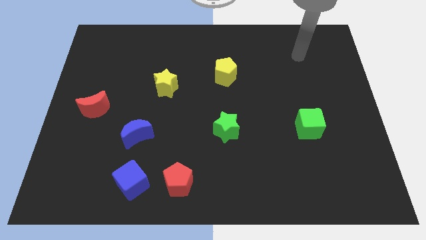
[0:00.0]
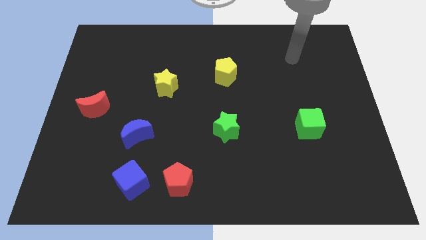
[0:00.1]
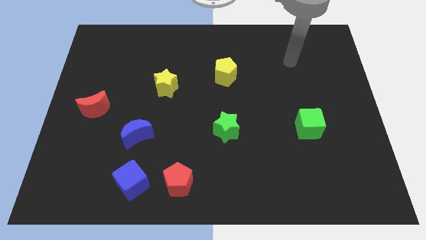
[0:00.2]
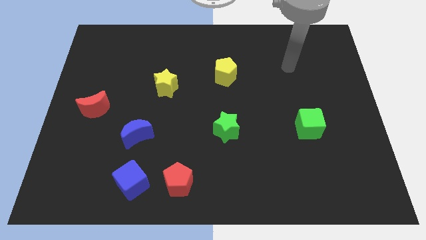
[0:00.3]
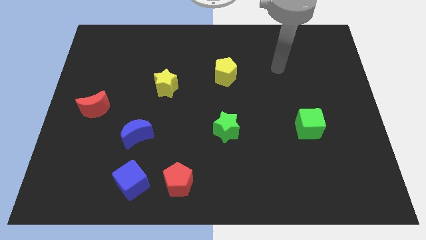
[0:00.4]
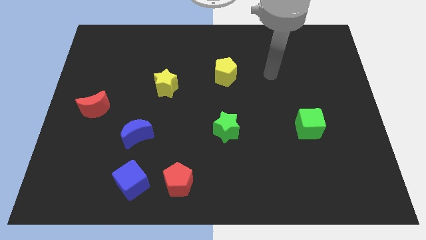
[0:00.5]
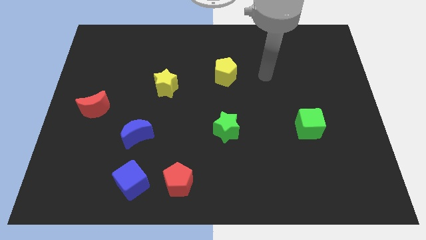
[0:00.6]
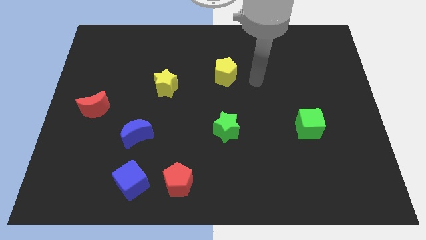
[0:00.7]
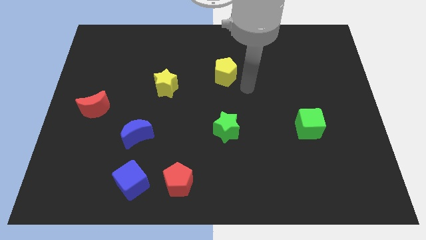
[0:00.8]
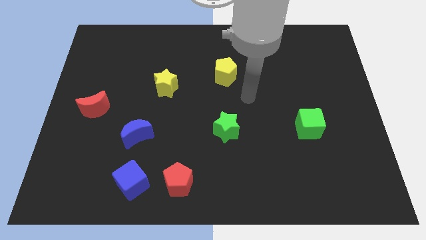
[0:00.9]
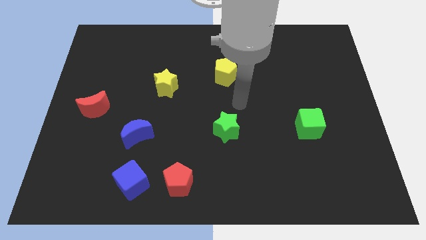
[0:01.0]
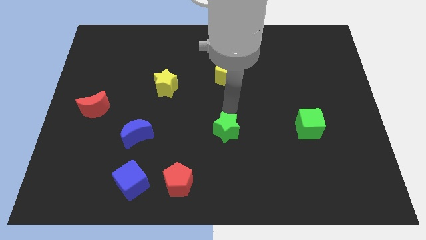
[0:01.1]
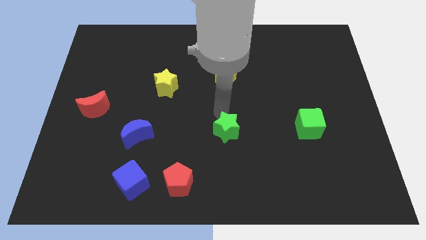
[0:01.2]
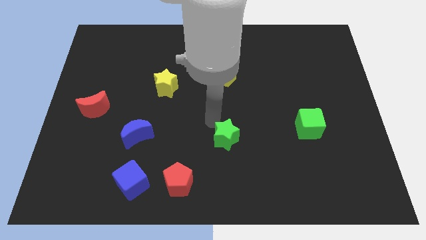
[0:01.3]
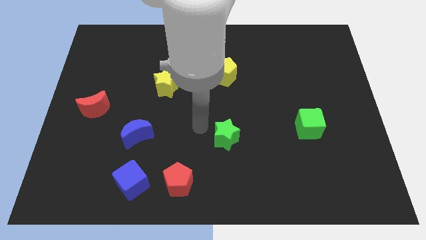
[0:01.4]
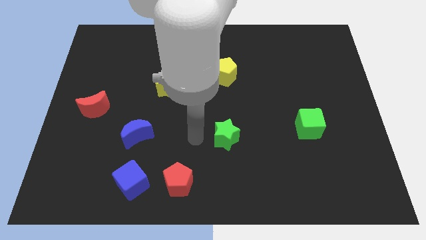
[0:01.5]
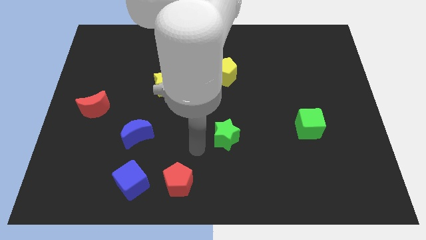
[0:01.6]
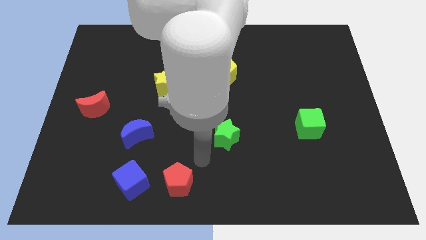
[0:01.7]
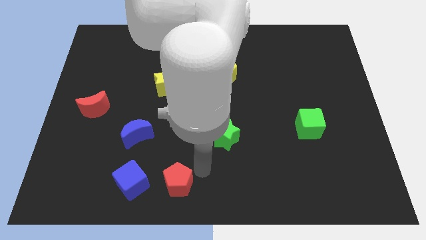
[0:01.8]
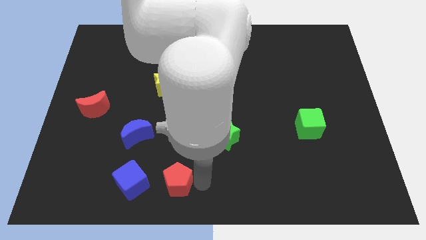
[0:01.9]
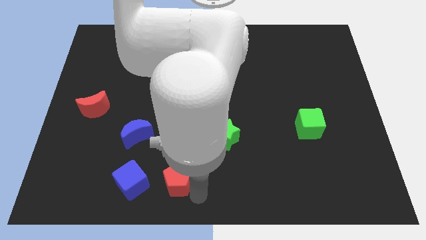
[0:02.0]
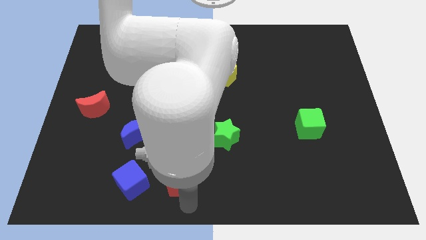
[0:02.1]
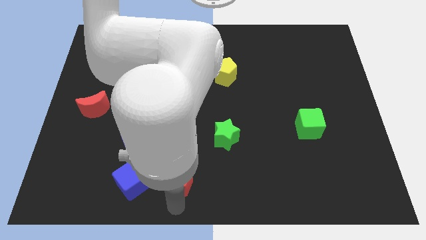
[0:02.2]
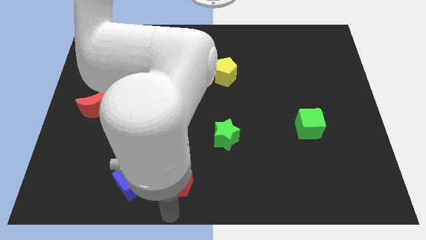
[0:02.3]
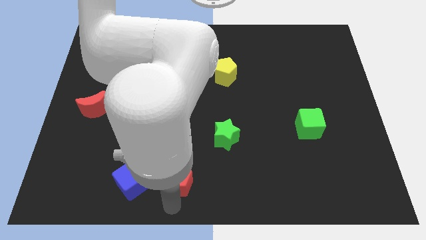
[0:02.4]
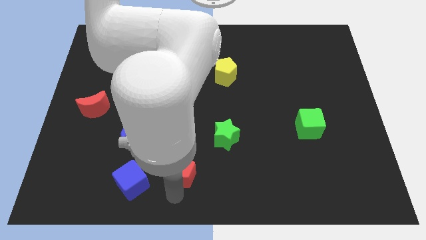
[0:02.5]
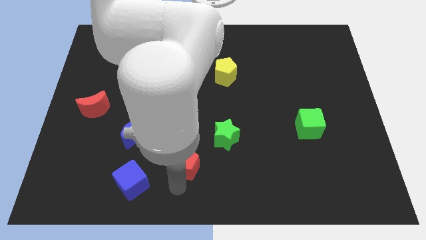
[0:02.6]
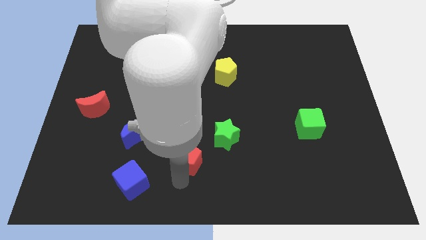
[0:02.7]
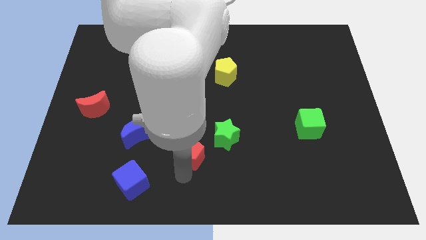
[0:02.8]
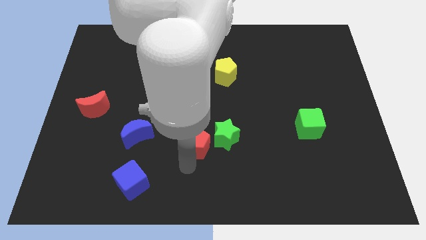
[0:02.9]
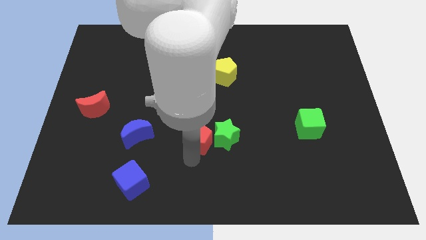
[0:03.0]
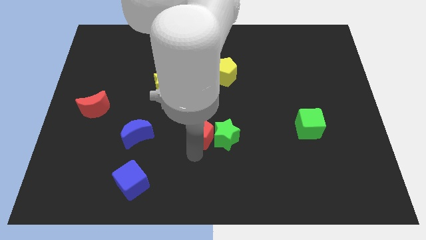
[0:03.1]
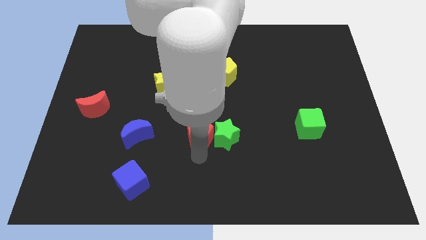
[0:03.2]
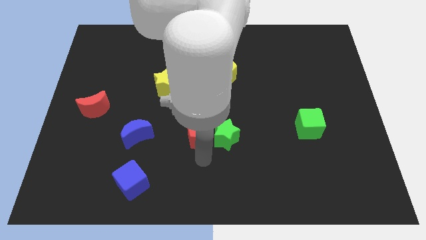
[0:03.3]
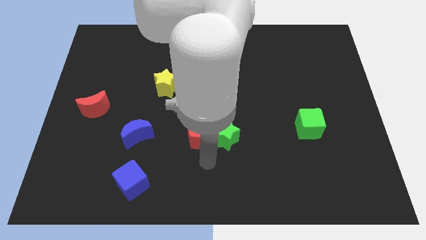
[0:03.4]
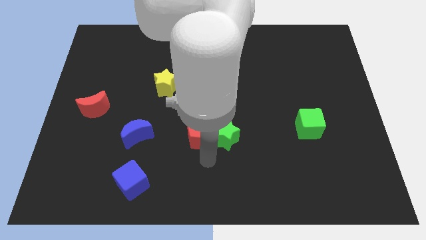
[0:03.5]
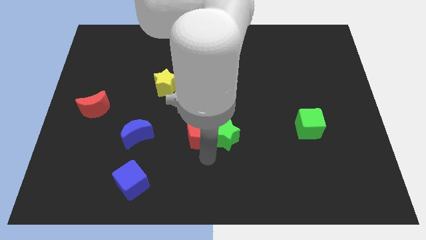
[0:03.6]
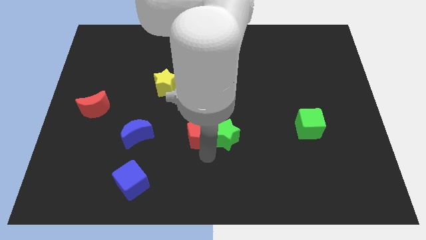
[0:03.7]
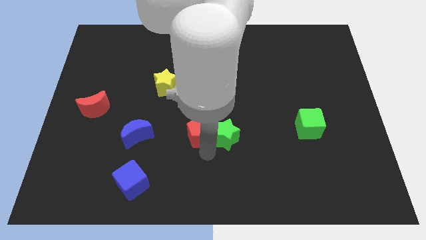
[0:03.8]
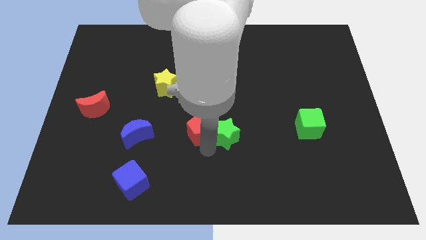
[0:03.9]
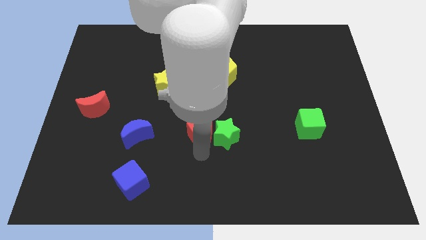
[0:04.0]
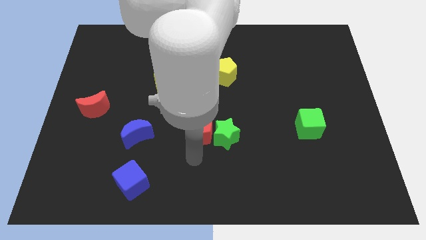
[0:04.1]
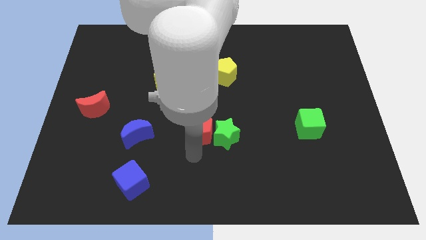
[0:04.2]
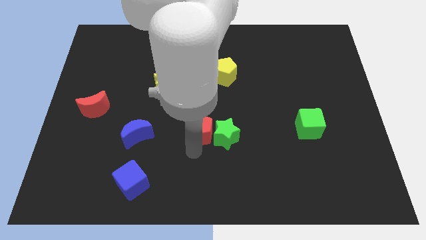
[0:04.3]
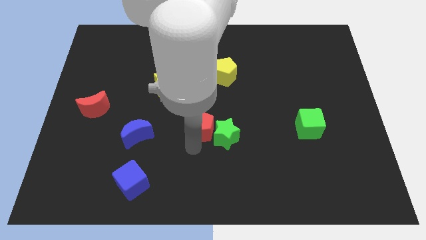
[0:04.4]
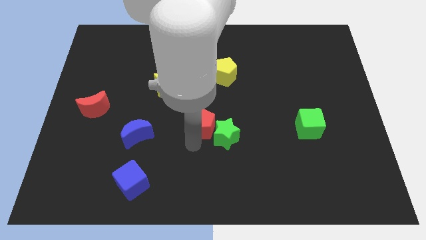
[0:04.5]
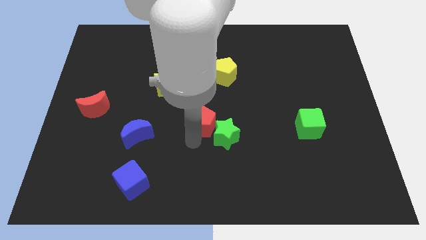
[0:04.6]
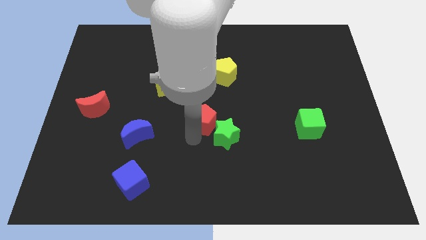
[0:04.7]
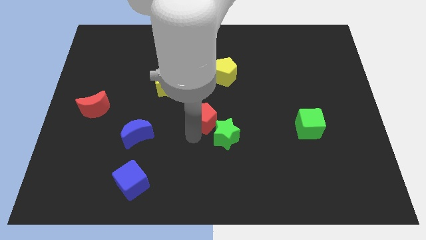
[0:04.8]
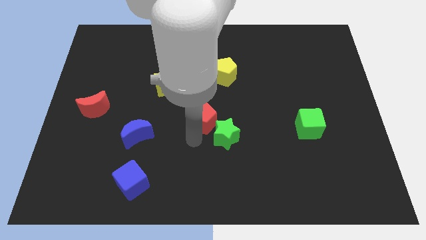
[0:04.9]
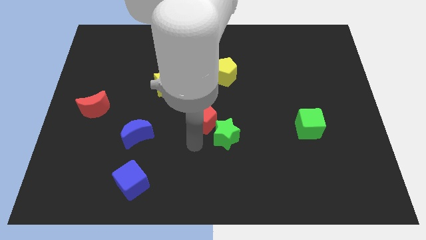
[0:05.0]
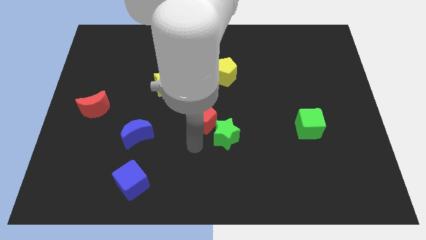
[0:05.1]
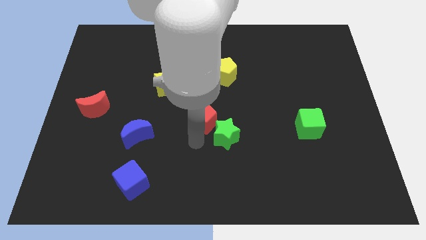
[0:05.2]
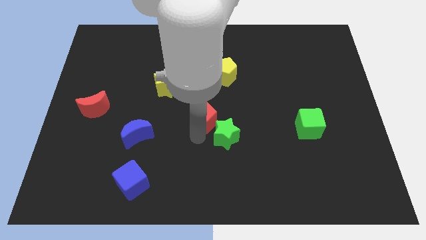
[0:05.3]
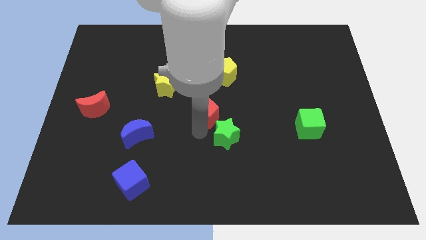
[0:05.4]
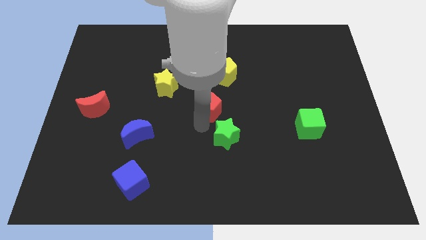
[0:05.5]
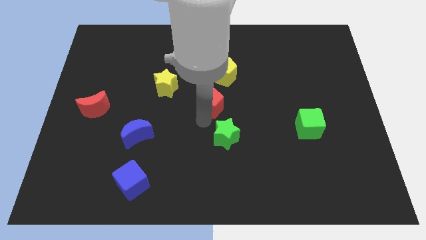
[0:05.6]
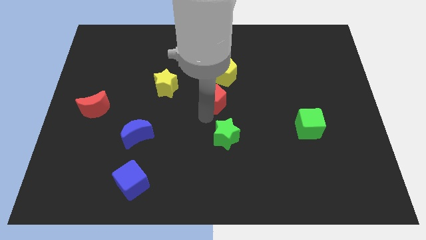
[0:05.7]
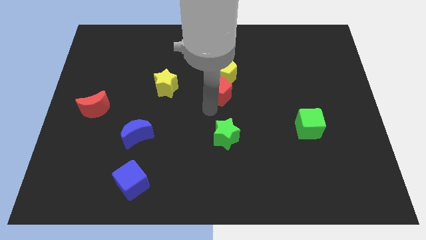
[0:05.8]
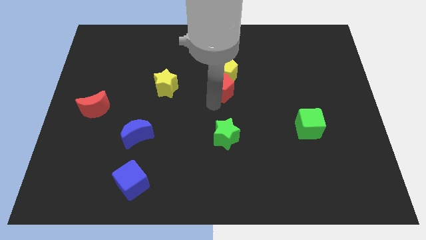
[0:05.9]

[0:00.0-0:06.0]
put the red pentagon next to the yellow pentagon

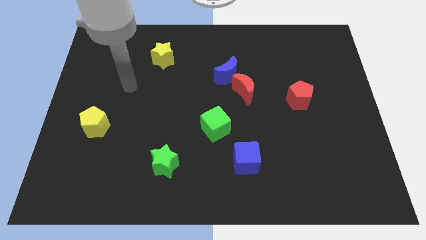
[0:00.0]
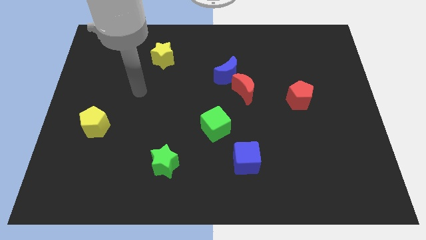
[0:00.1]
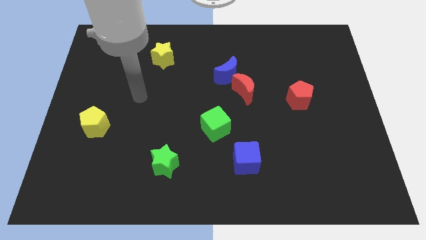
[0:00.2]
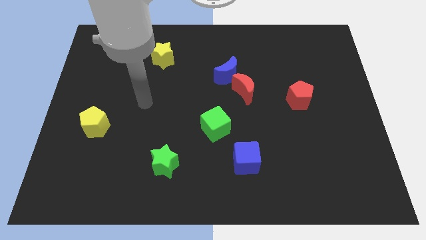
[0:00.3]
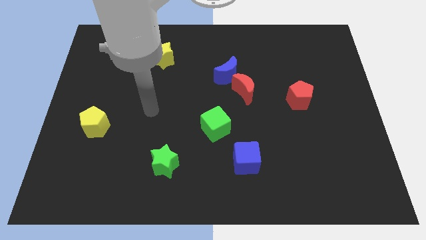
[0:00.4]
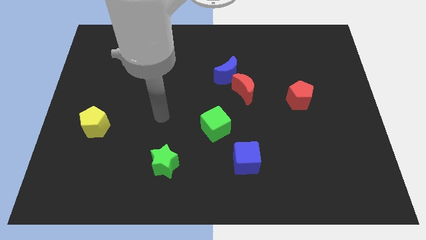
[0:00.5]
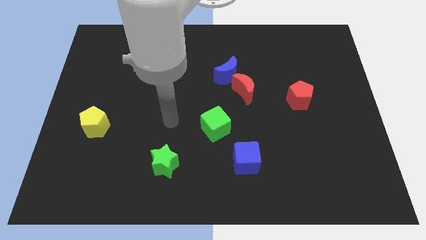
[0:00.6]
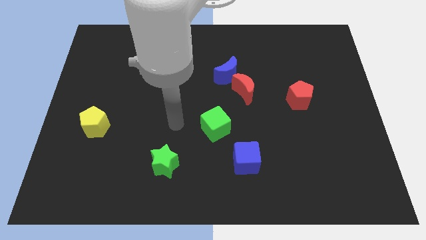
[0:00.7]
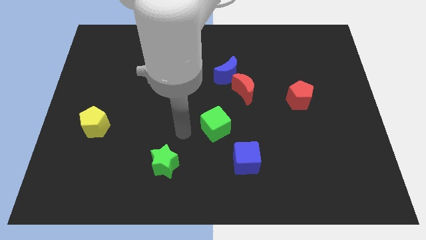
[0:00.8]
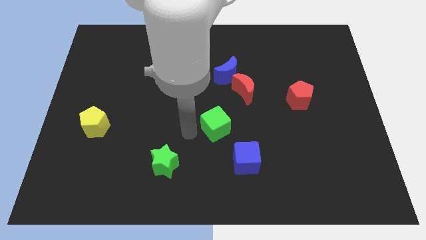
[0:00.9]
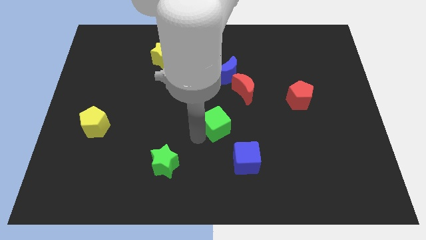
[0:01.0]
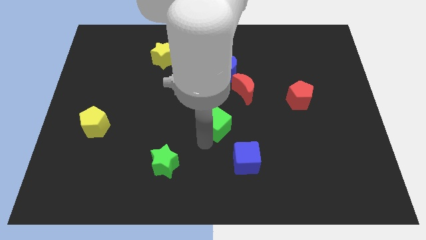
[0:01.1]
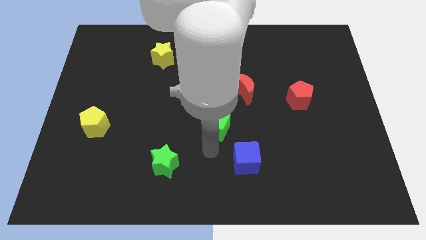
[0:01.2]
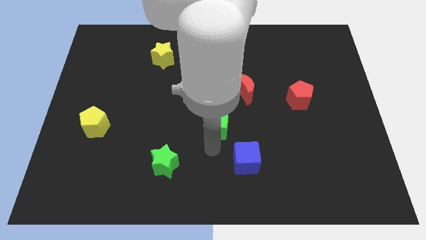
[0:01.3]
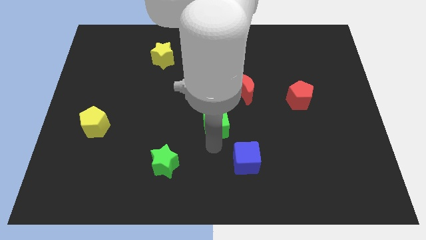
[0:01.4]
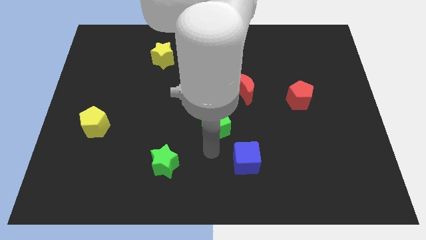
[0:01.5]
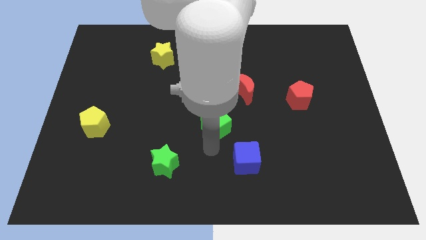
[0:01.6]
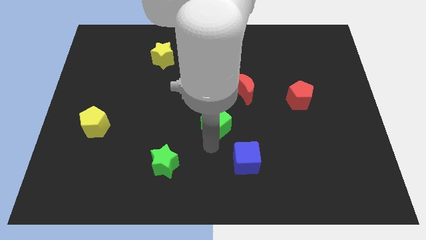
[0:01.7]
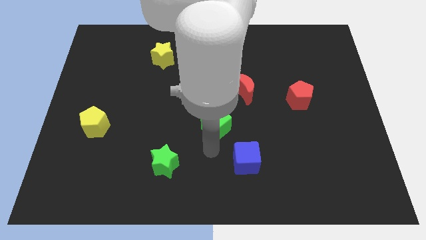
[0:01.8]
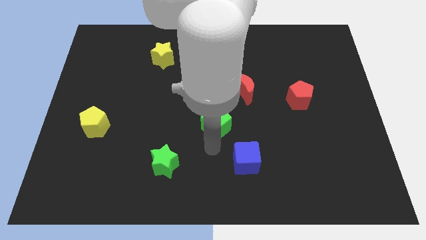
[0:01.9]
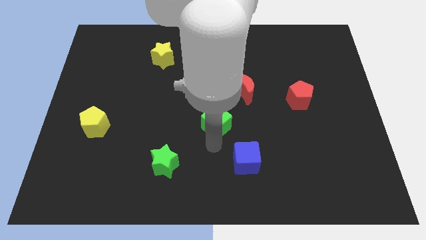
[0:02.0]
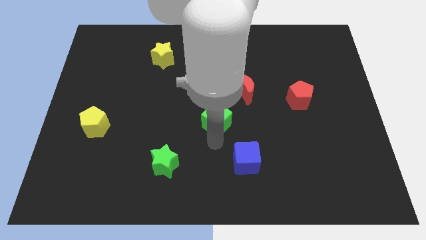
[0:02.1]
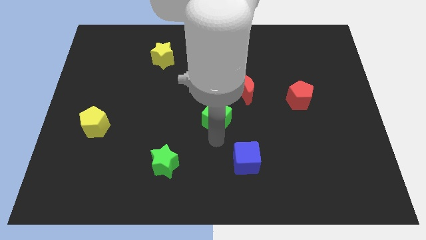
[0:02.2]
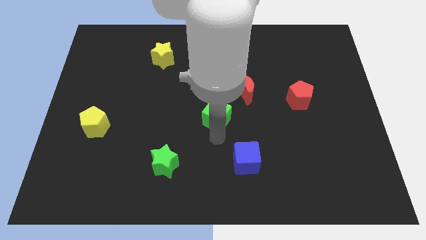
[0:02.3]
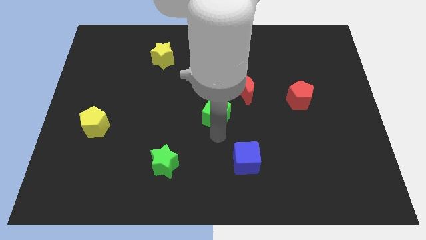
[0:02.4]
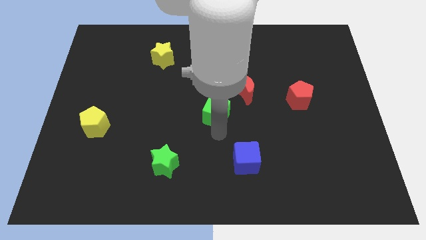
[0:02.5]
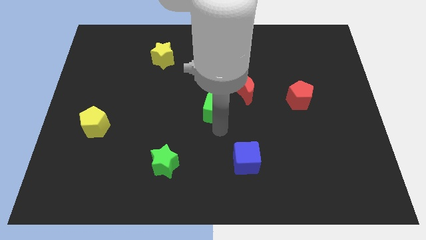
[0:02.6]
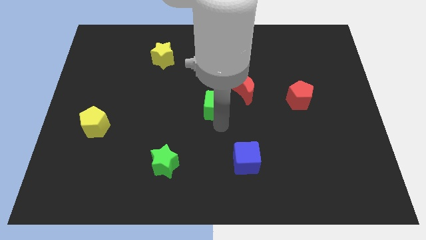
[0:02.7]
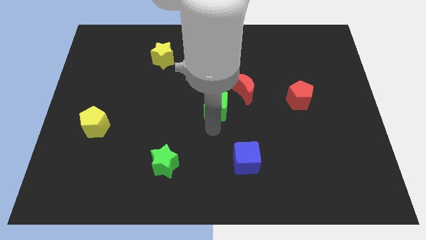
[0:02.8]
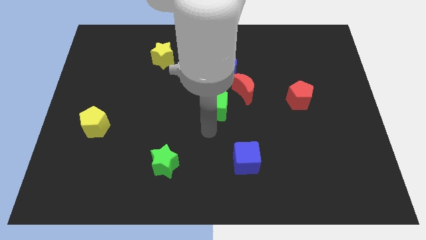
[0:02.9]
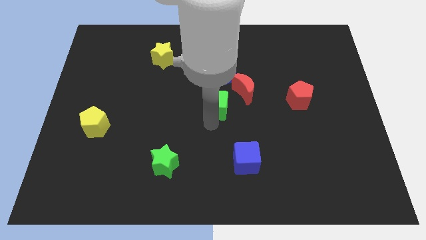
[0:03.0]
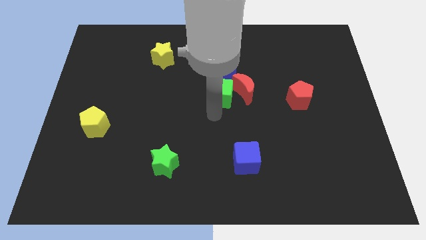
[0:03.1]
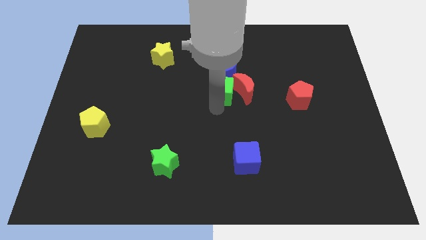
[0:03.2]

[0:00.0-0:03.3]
slide the green cube towards the blue moon
